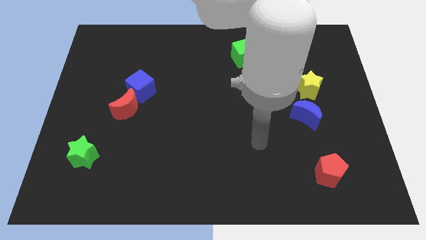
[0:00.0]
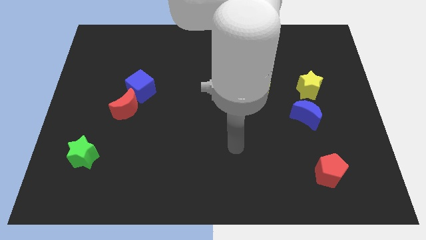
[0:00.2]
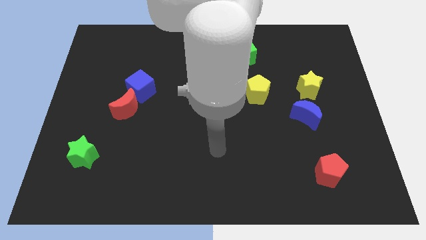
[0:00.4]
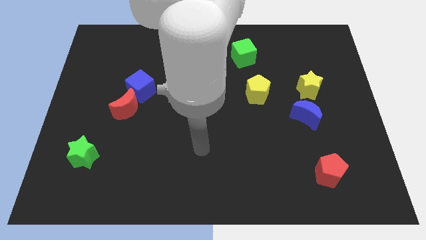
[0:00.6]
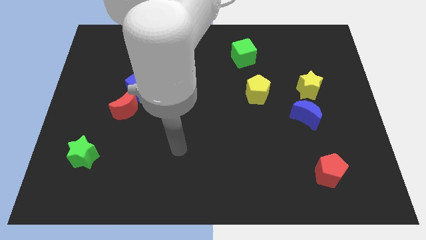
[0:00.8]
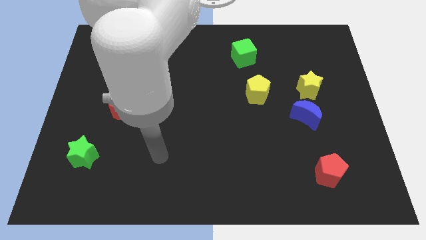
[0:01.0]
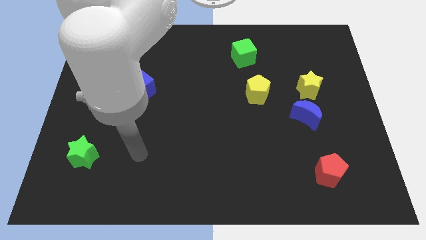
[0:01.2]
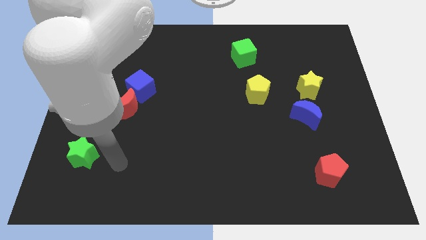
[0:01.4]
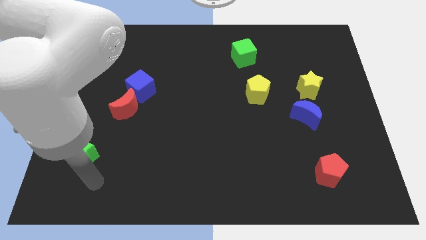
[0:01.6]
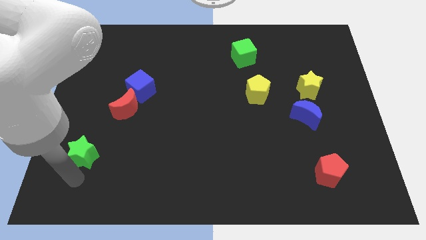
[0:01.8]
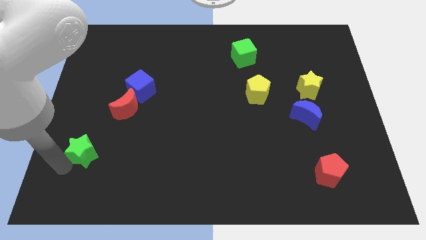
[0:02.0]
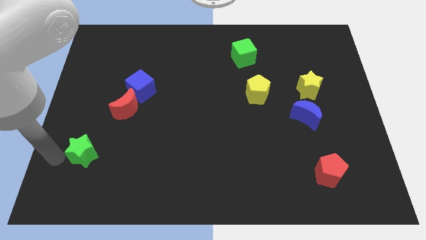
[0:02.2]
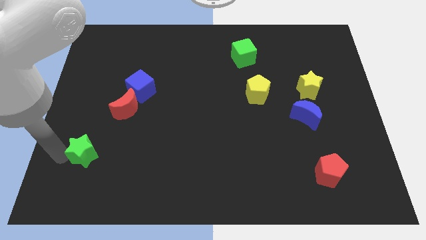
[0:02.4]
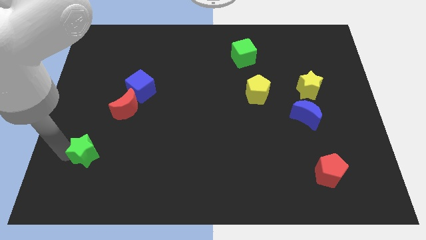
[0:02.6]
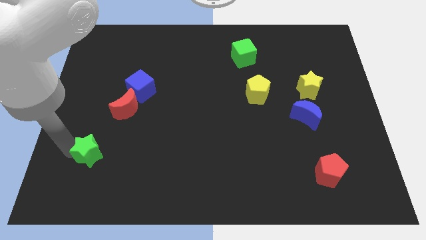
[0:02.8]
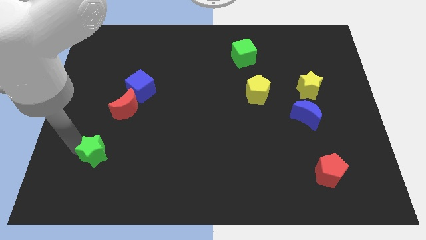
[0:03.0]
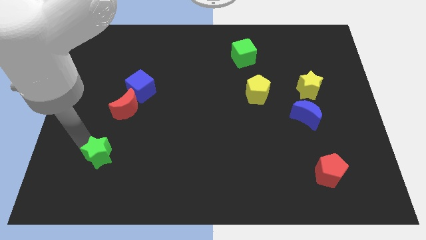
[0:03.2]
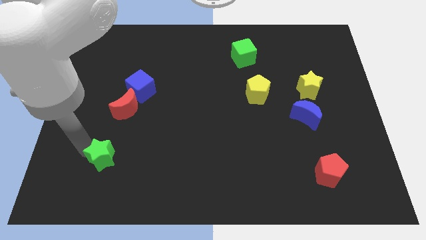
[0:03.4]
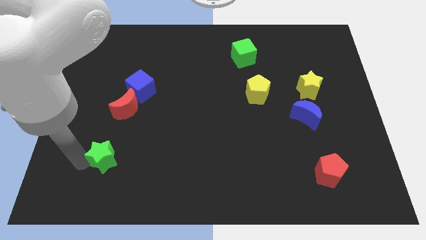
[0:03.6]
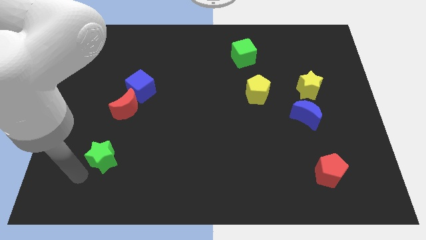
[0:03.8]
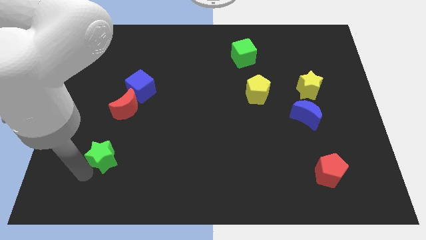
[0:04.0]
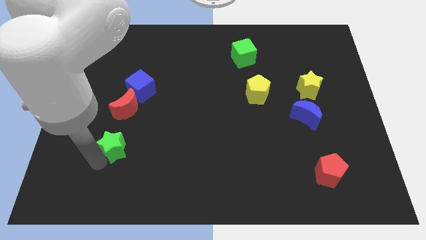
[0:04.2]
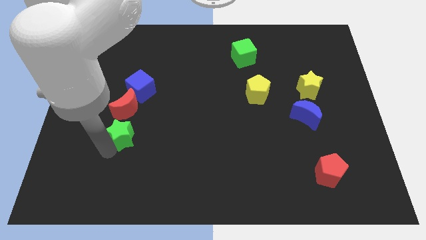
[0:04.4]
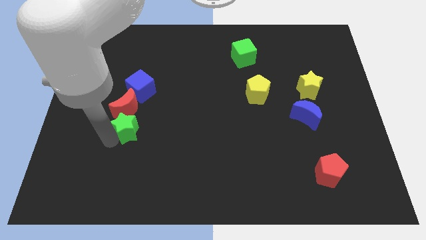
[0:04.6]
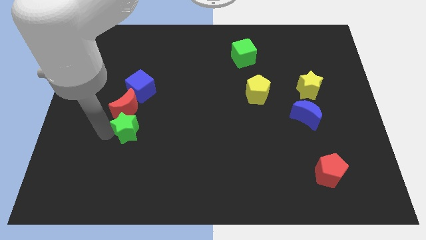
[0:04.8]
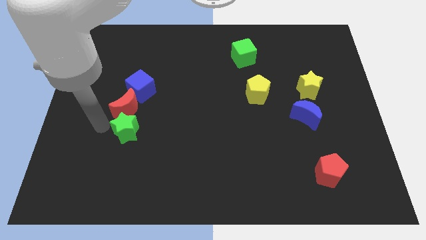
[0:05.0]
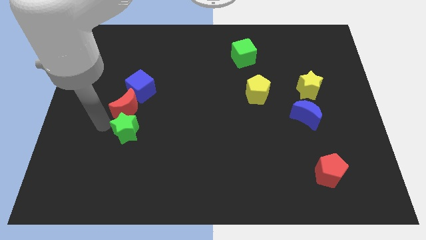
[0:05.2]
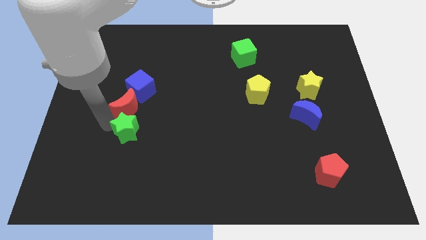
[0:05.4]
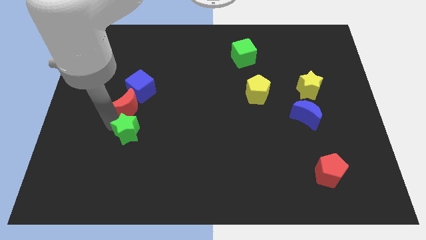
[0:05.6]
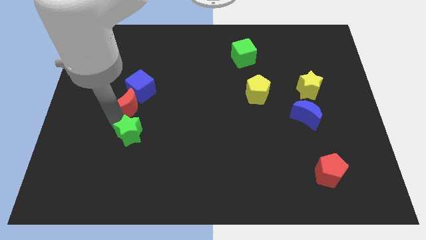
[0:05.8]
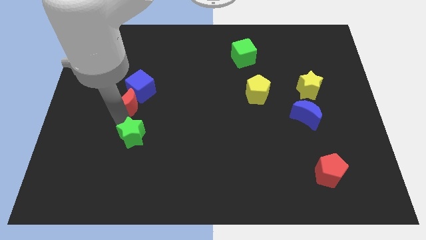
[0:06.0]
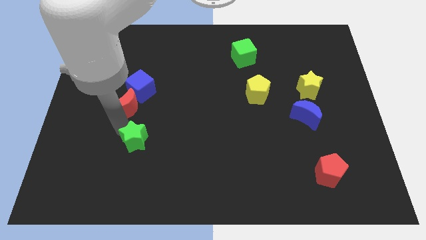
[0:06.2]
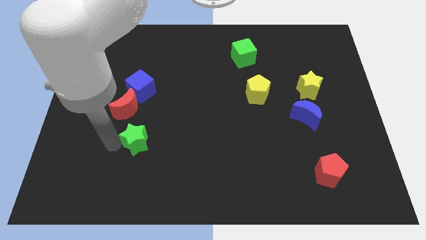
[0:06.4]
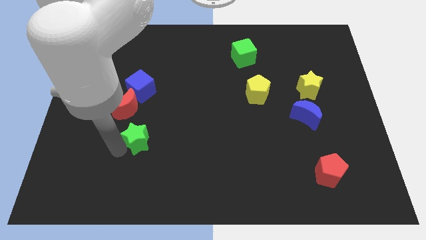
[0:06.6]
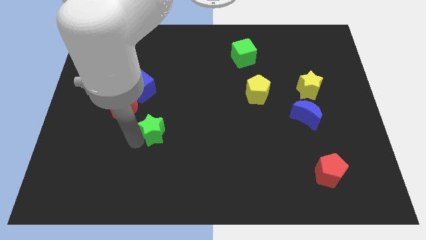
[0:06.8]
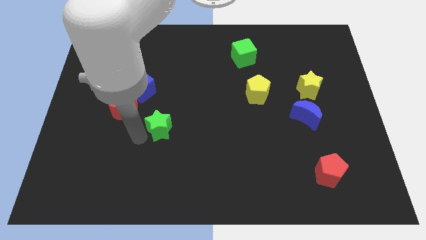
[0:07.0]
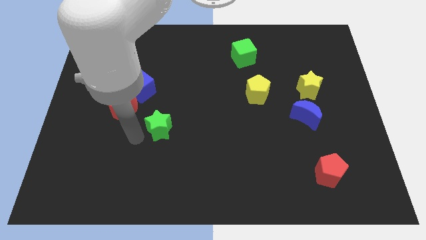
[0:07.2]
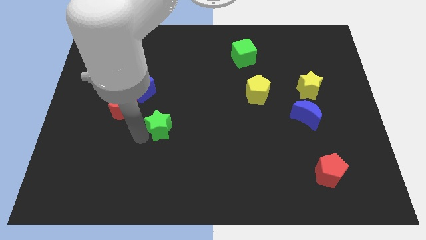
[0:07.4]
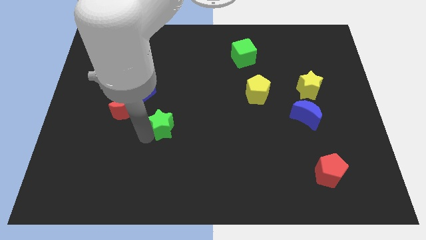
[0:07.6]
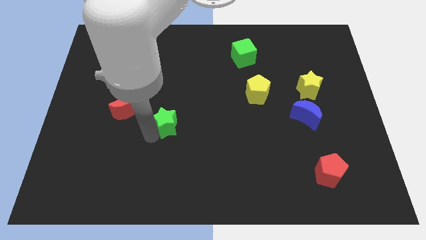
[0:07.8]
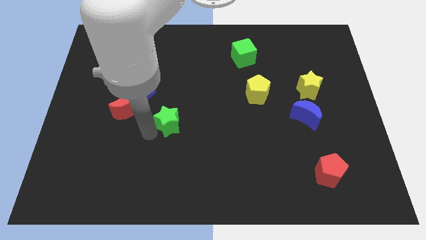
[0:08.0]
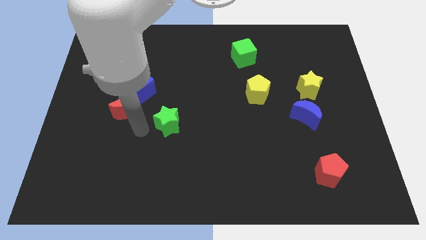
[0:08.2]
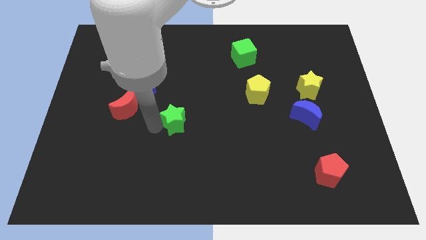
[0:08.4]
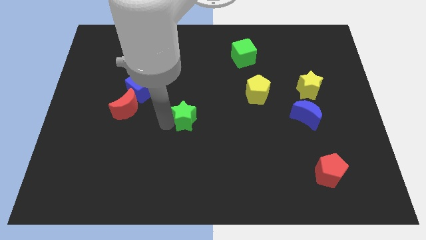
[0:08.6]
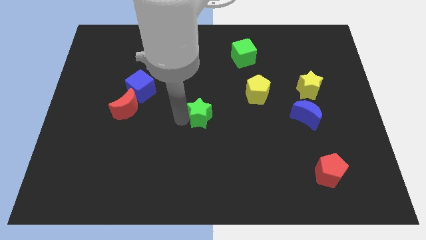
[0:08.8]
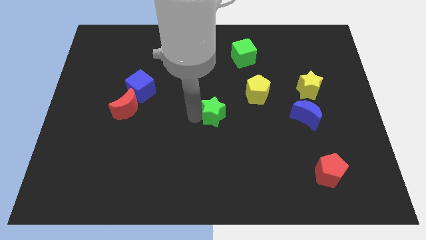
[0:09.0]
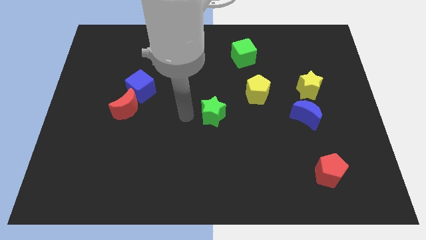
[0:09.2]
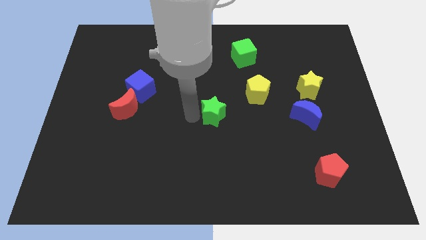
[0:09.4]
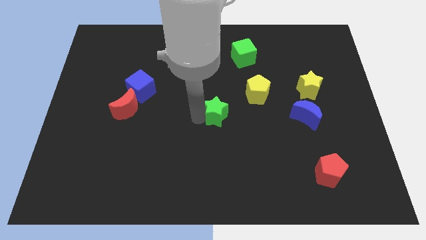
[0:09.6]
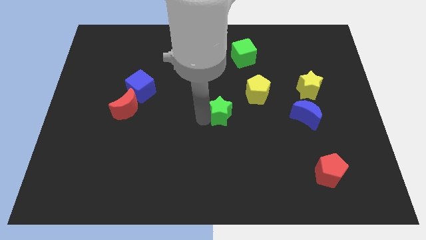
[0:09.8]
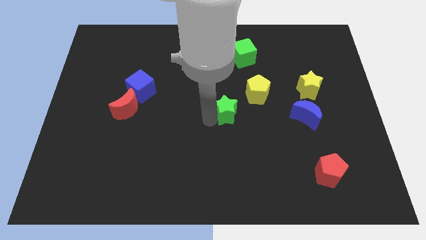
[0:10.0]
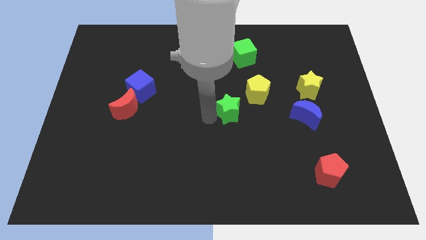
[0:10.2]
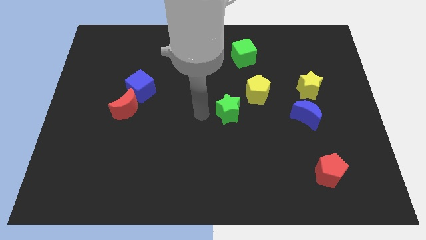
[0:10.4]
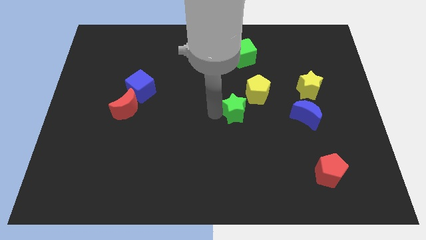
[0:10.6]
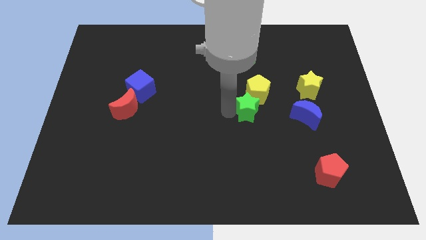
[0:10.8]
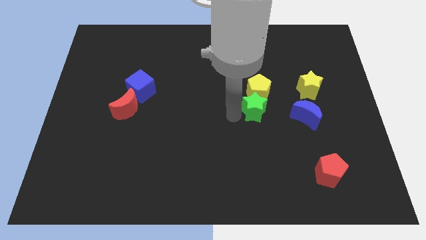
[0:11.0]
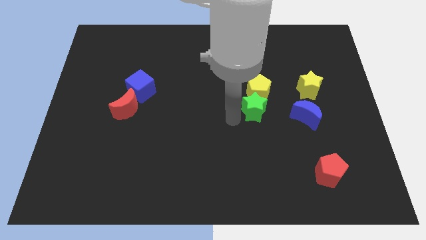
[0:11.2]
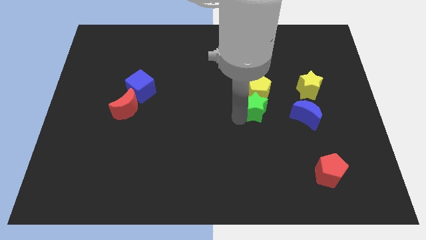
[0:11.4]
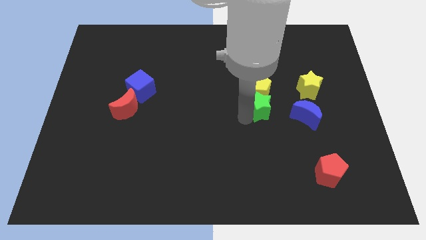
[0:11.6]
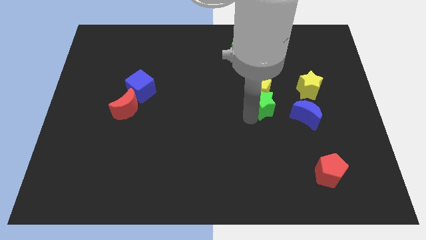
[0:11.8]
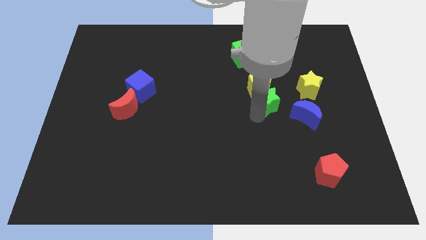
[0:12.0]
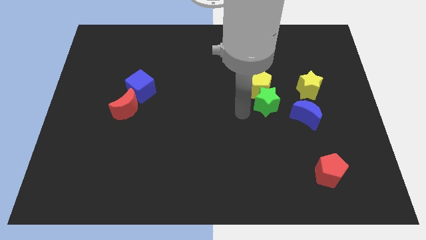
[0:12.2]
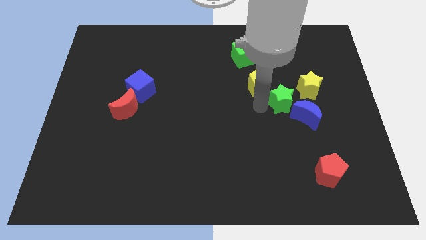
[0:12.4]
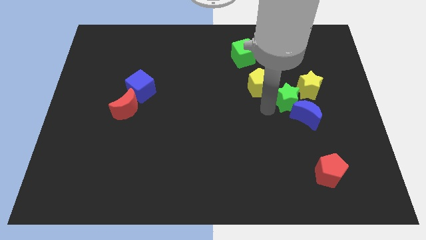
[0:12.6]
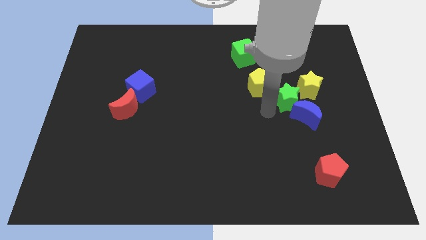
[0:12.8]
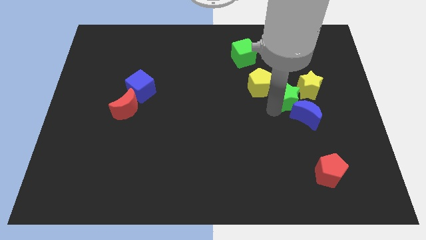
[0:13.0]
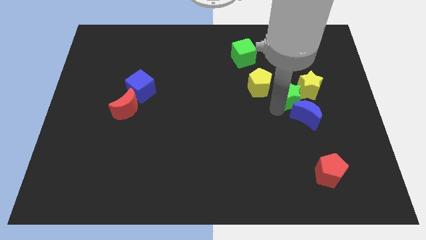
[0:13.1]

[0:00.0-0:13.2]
slide the green star towards the yellow star

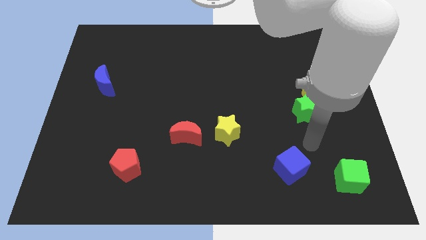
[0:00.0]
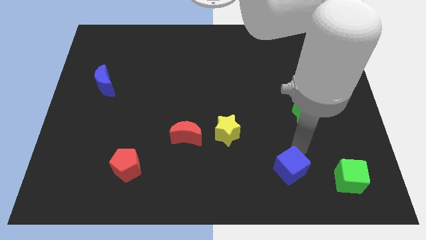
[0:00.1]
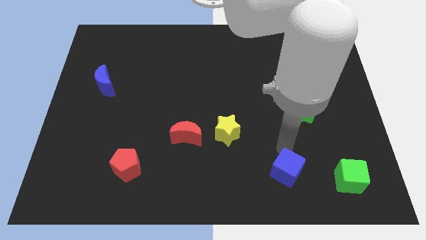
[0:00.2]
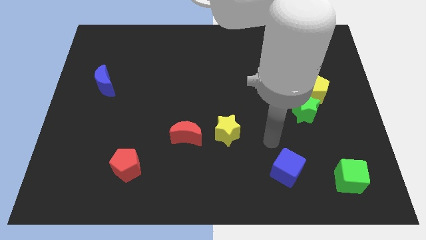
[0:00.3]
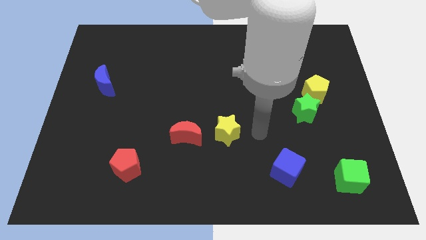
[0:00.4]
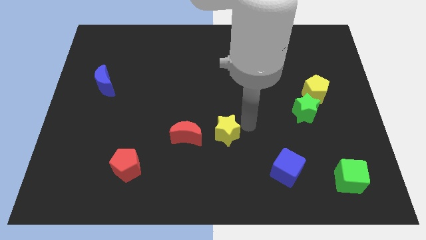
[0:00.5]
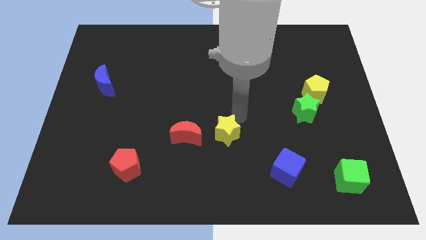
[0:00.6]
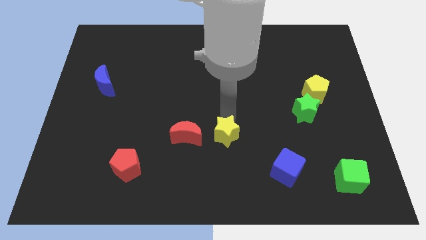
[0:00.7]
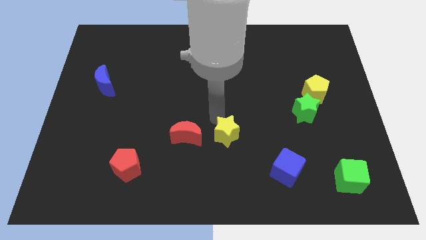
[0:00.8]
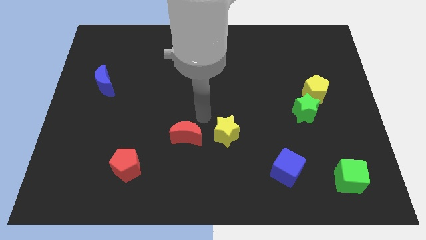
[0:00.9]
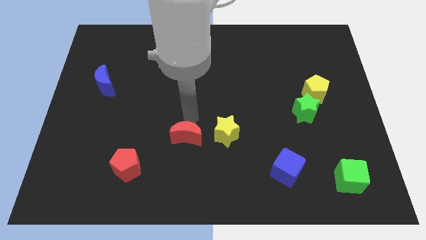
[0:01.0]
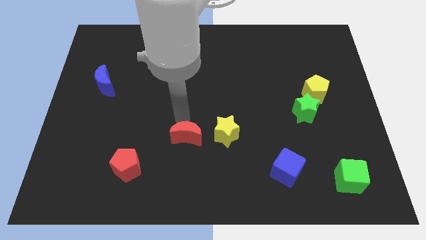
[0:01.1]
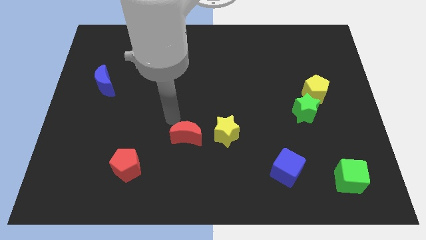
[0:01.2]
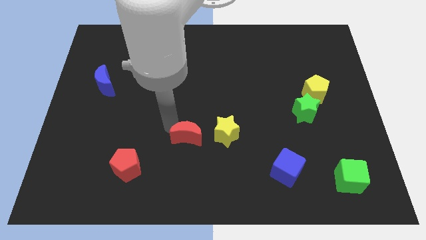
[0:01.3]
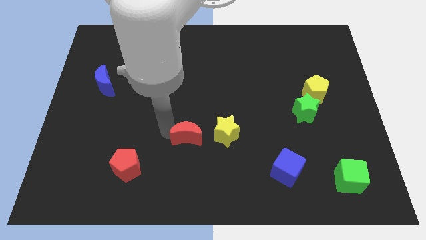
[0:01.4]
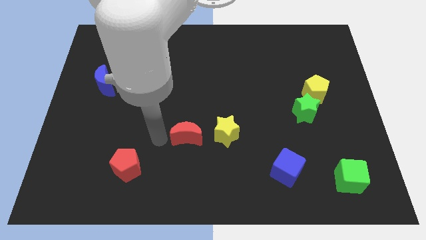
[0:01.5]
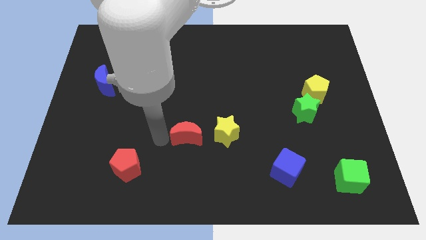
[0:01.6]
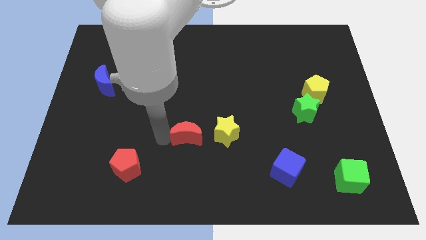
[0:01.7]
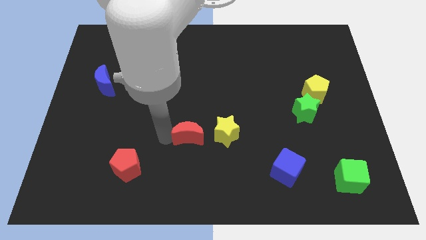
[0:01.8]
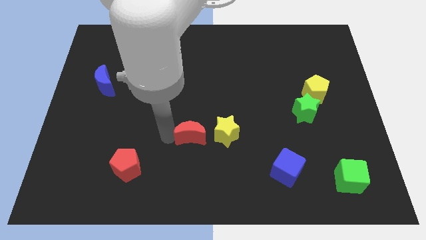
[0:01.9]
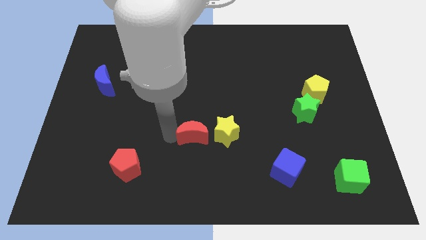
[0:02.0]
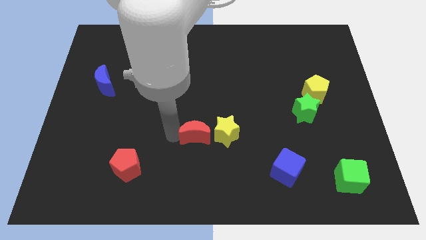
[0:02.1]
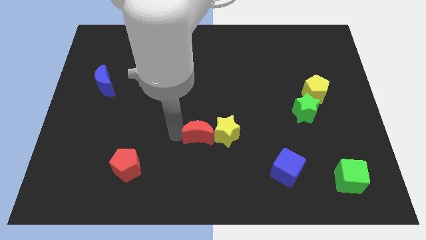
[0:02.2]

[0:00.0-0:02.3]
move the red moon towards the yellow star
